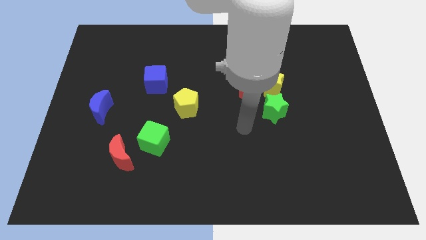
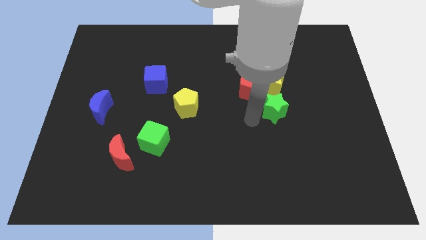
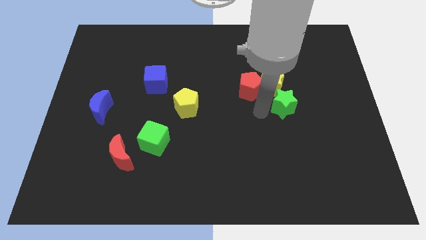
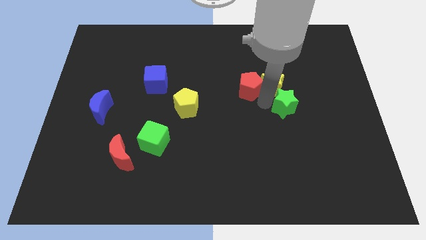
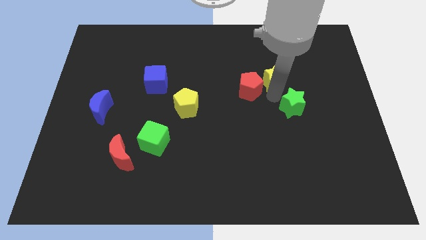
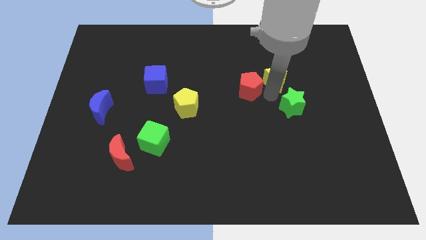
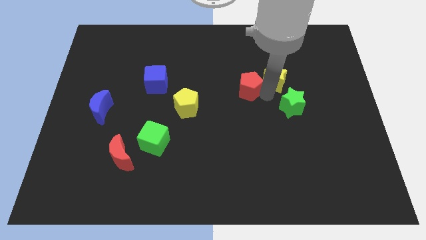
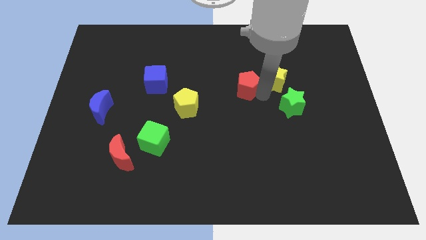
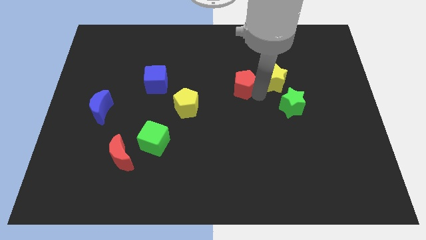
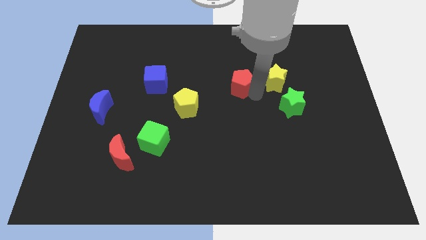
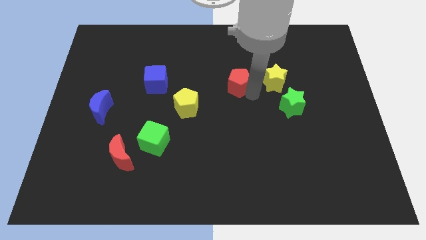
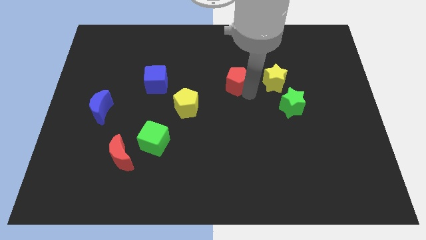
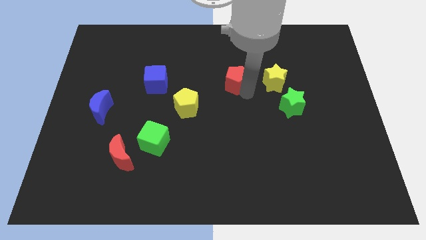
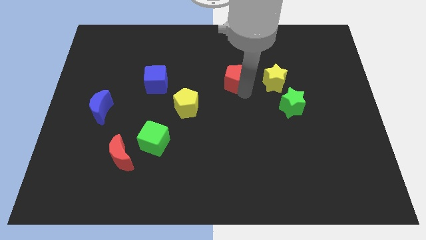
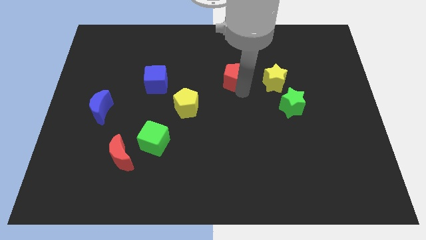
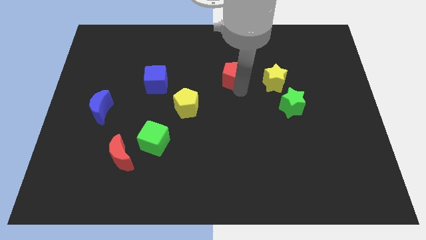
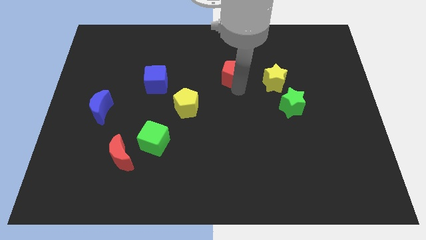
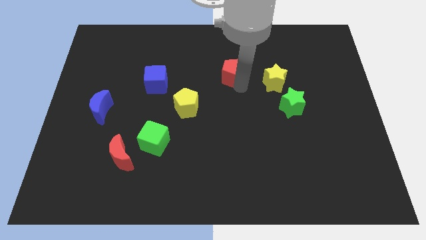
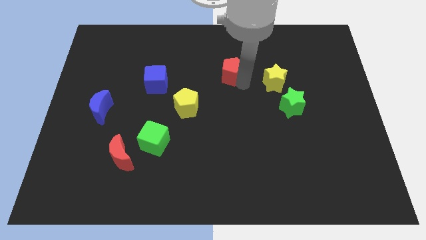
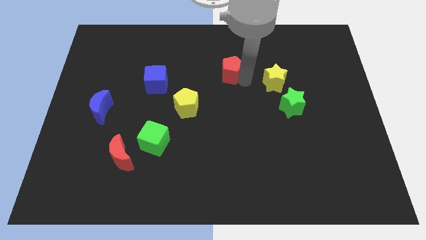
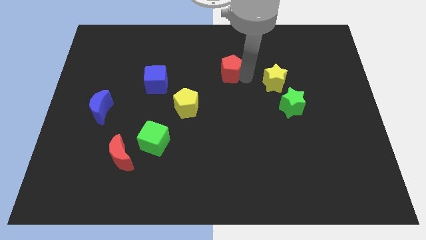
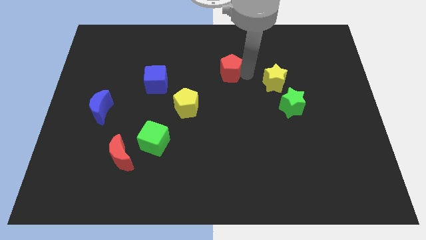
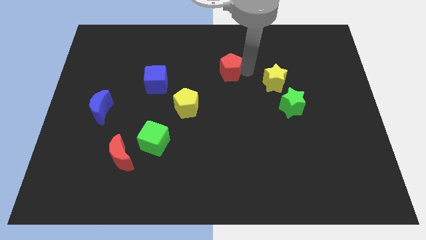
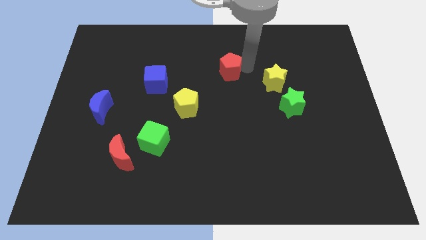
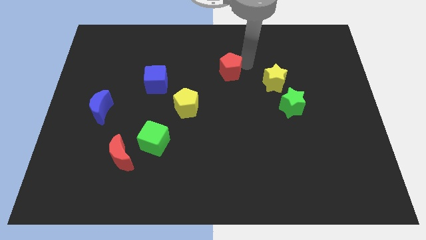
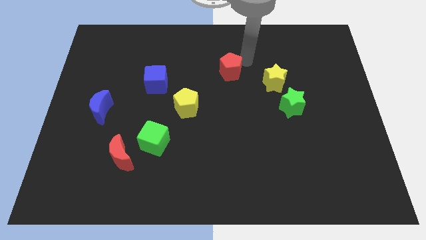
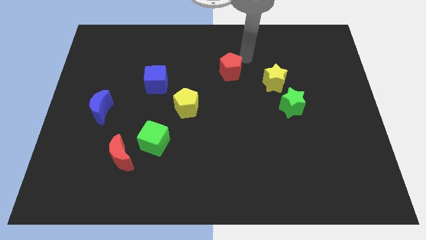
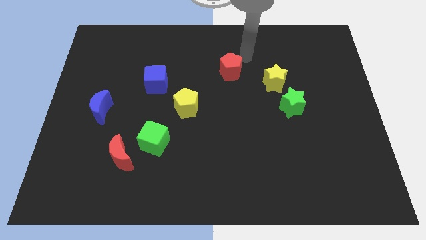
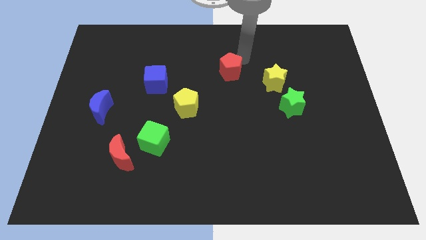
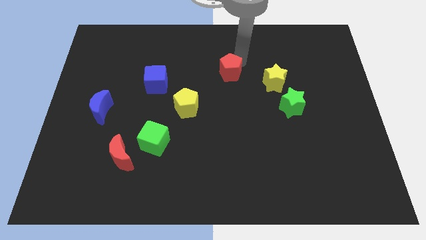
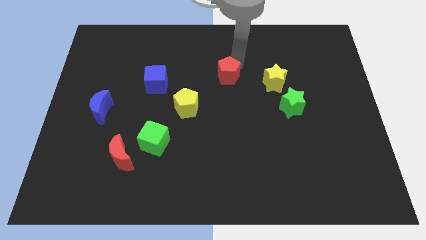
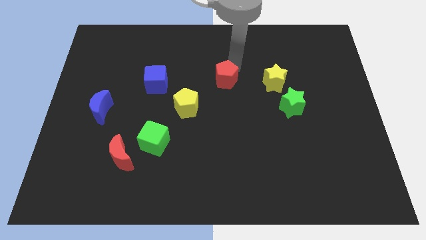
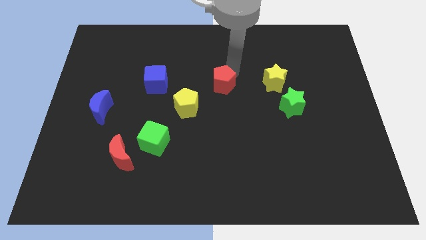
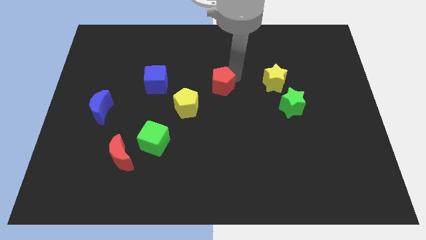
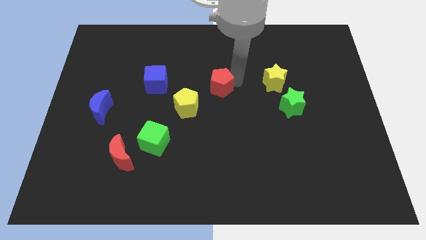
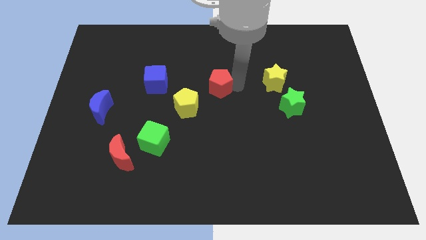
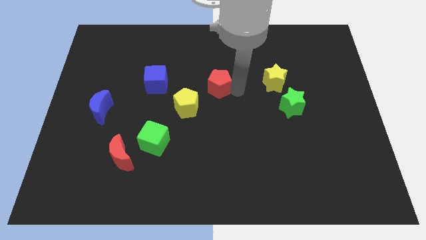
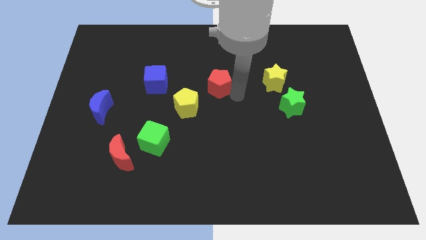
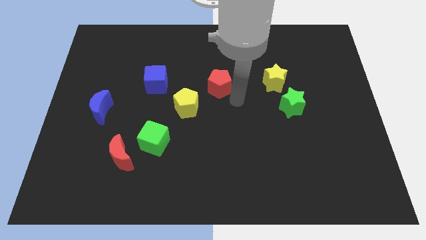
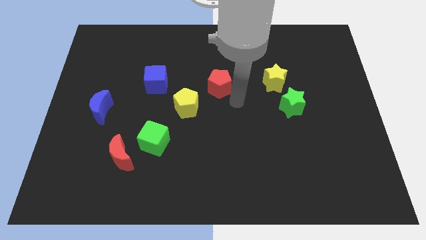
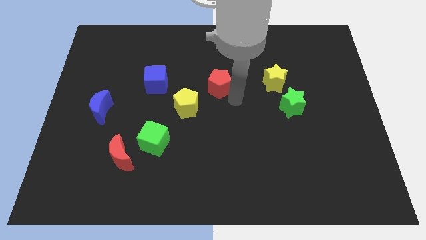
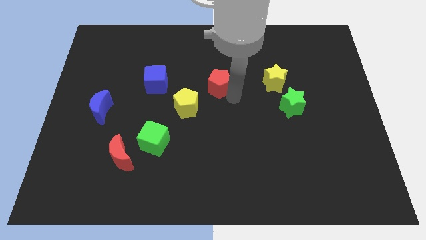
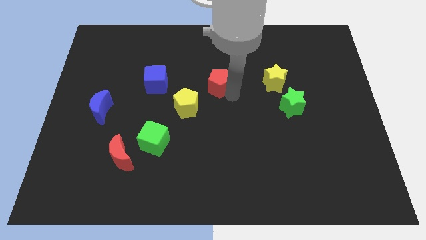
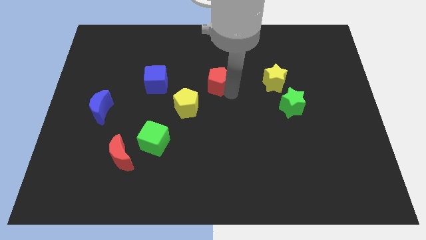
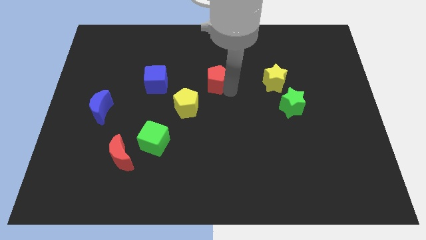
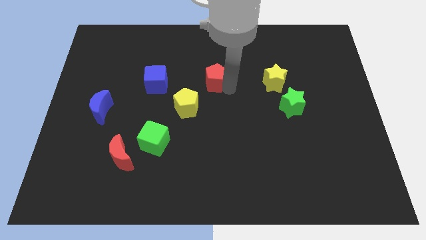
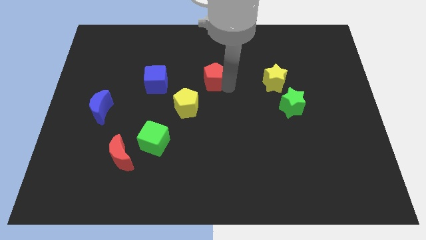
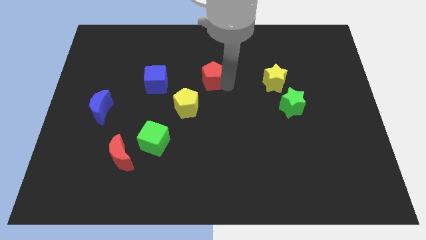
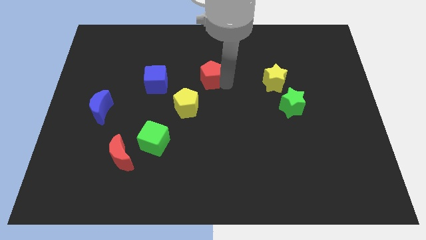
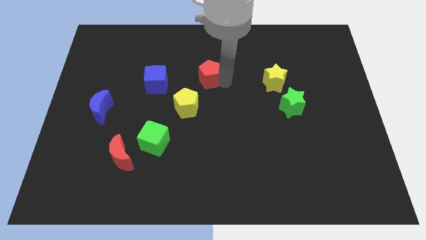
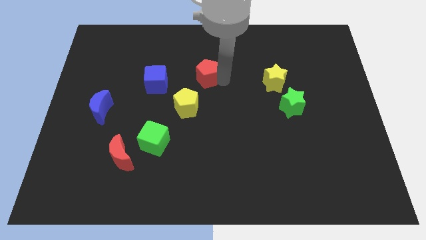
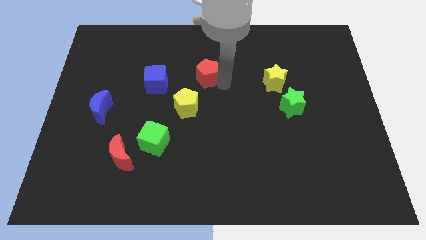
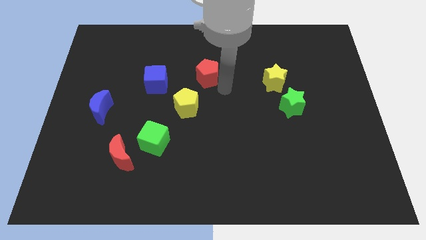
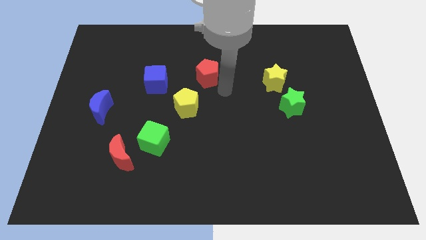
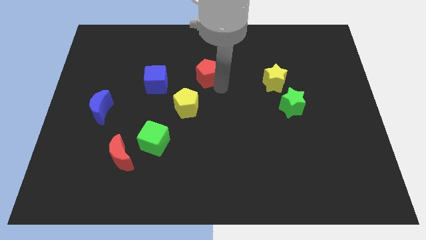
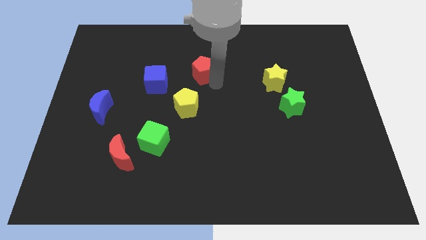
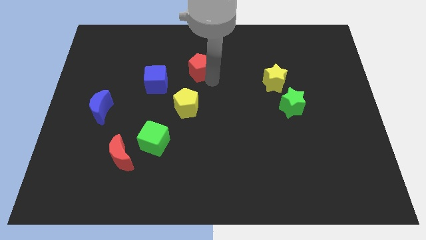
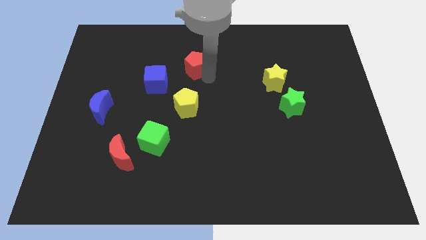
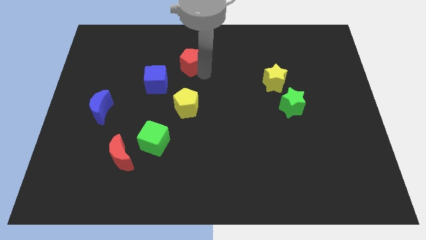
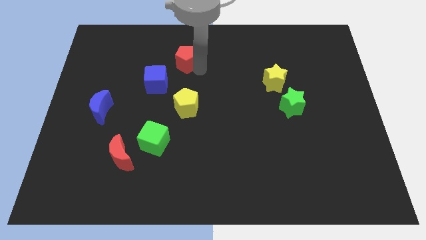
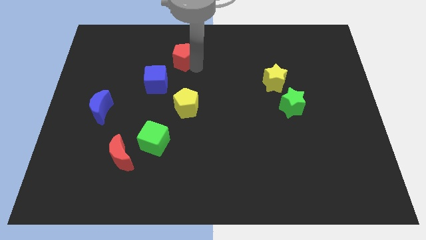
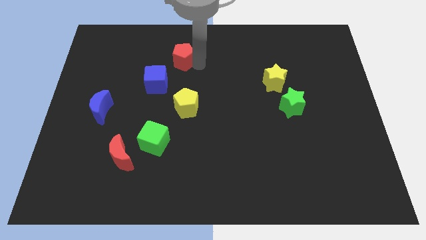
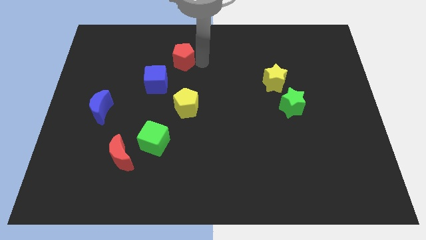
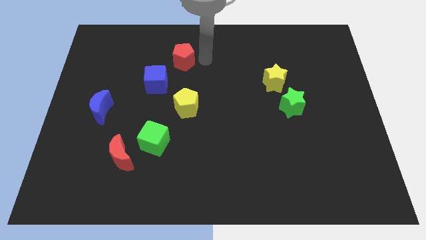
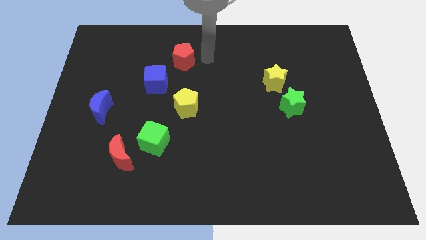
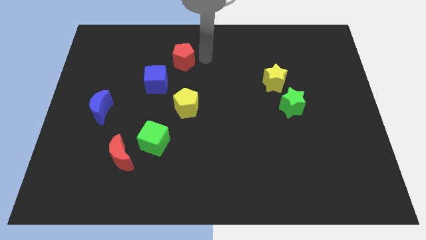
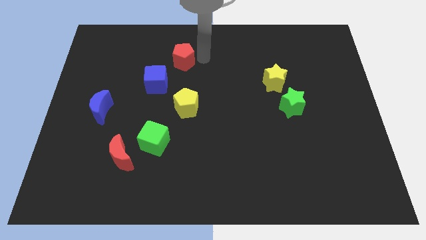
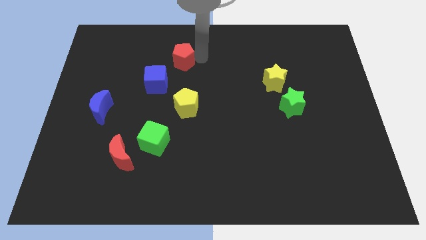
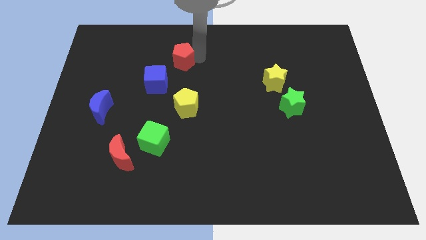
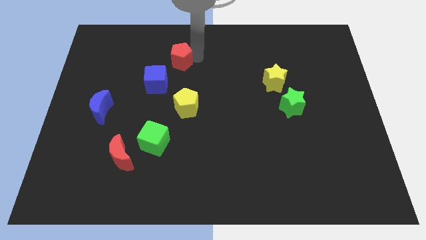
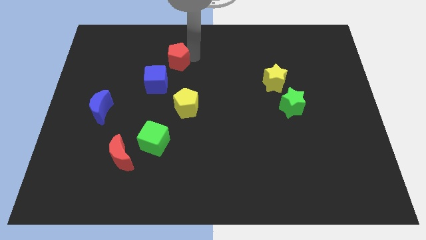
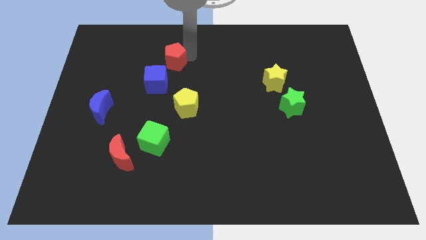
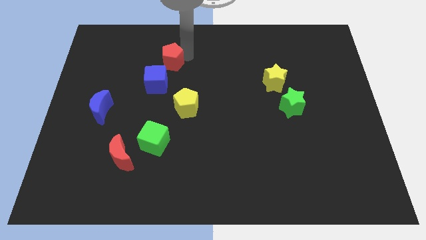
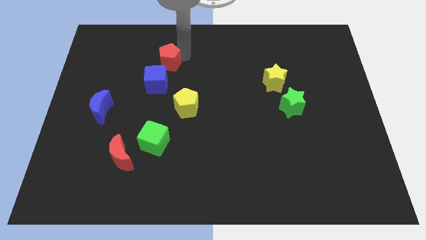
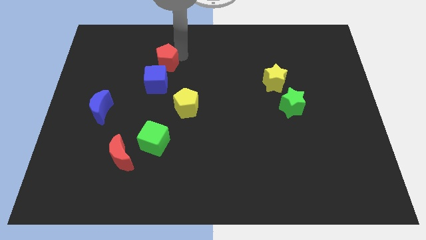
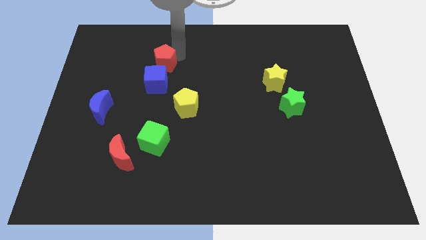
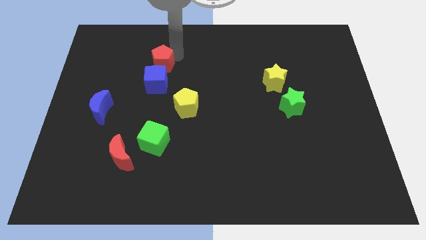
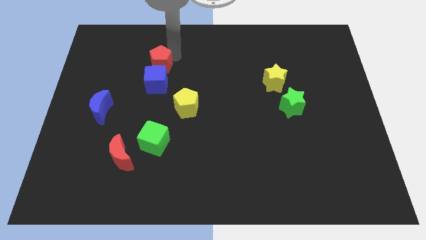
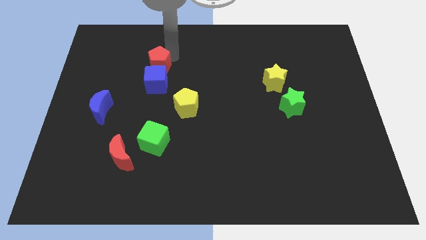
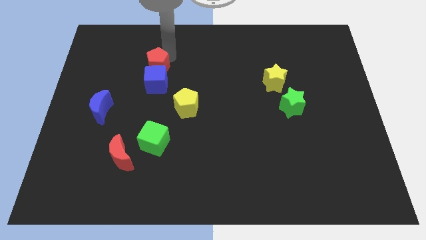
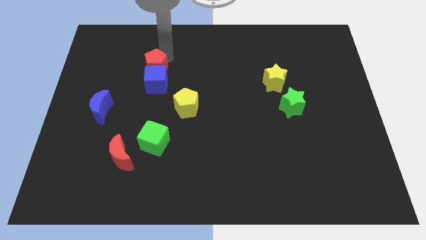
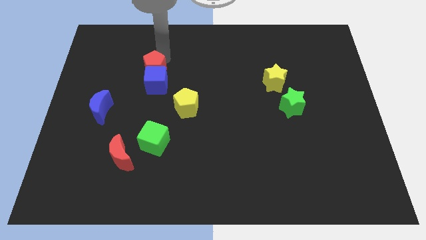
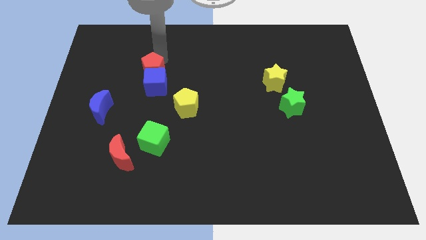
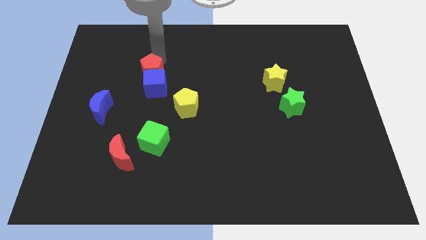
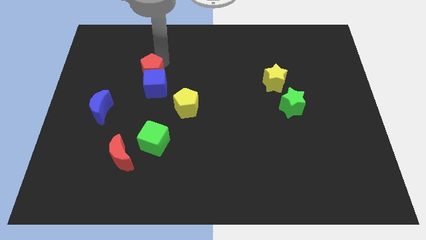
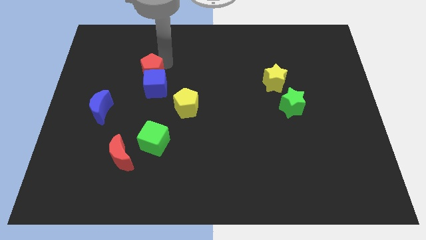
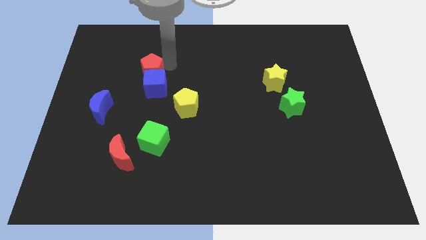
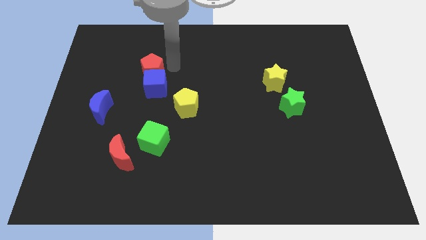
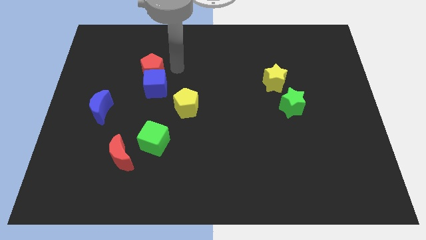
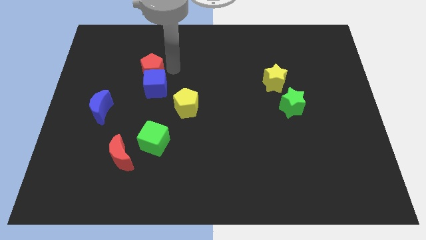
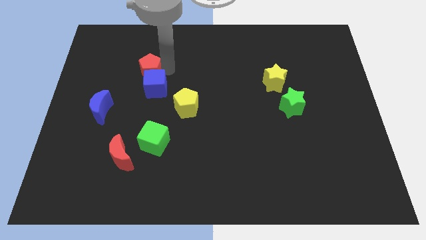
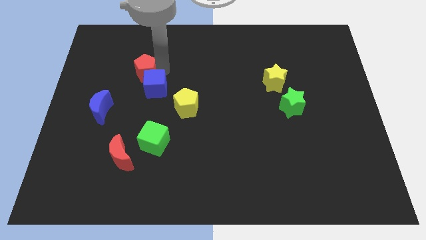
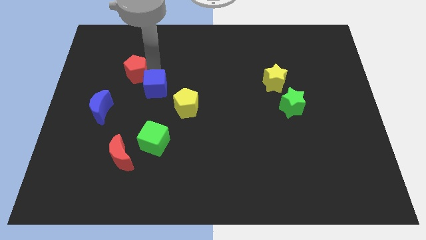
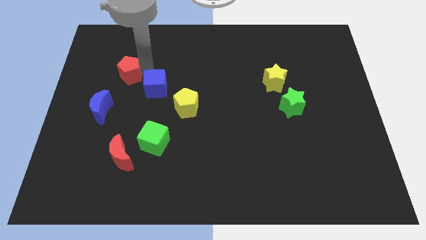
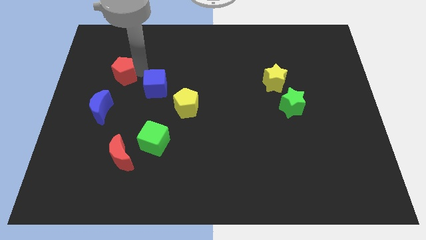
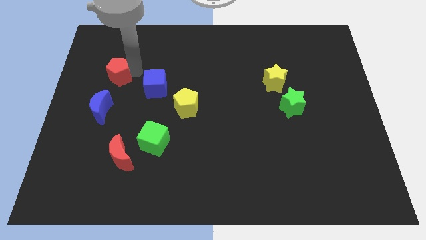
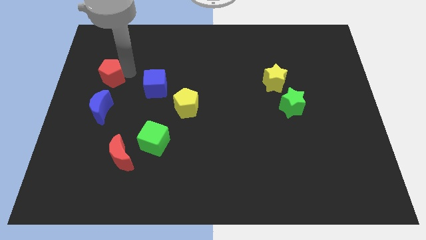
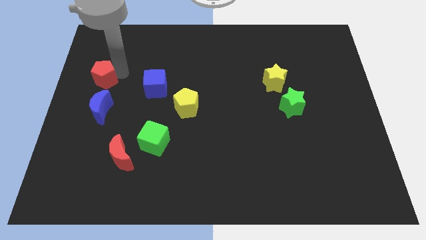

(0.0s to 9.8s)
push the red pentagon to the center left
